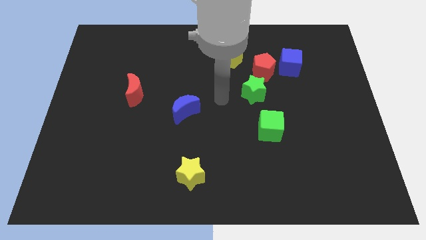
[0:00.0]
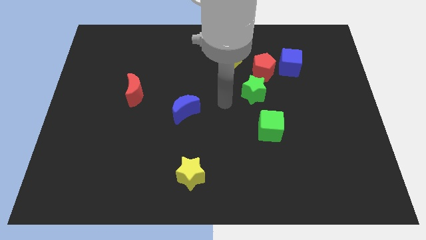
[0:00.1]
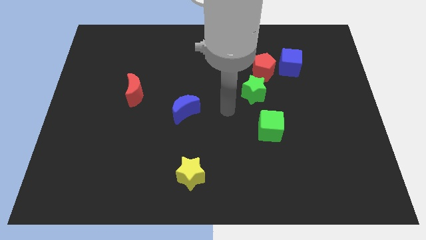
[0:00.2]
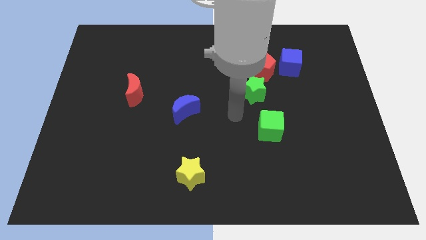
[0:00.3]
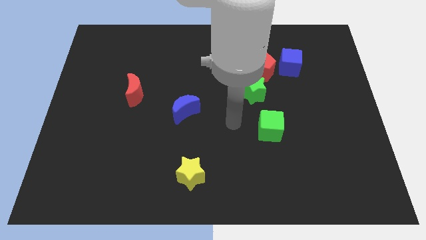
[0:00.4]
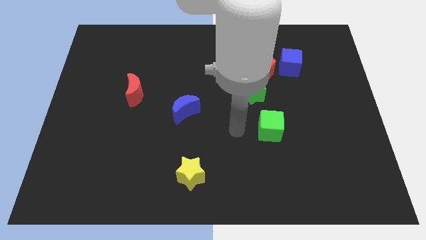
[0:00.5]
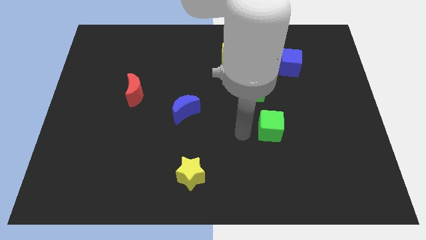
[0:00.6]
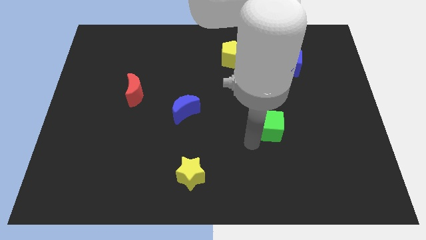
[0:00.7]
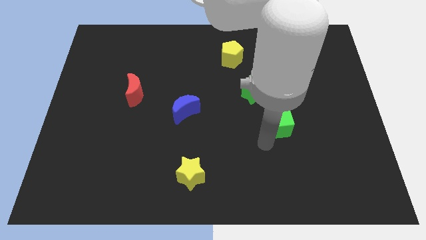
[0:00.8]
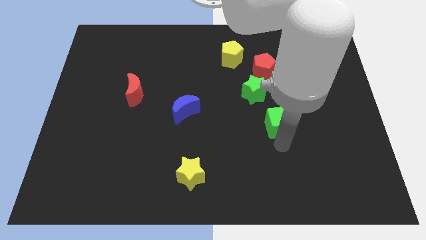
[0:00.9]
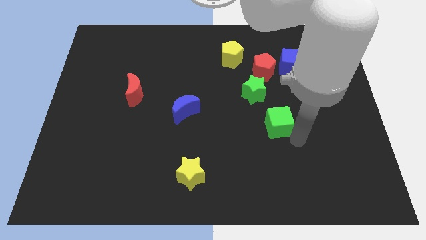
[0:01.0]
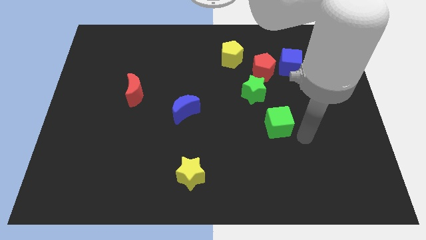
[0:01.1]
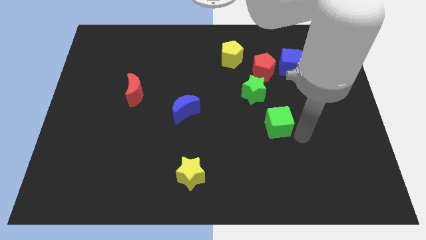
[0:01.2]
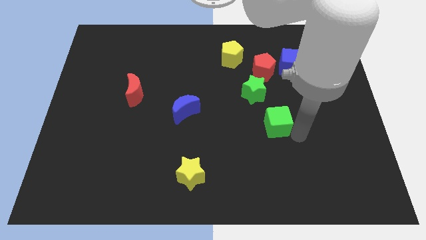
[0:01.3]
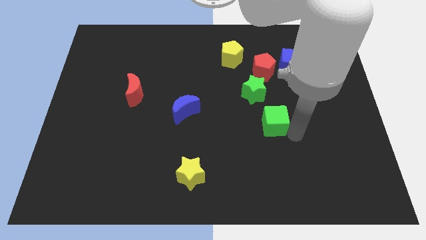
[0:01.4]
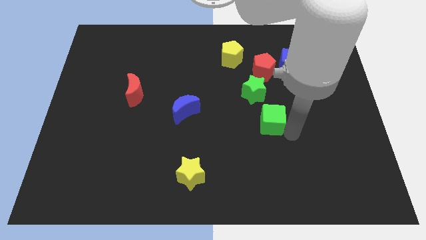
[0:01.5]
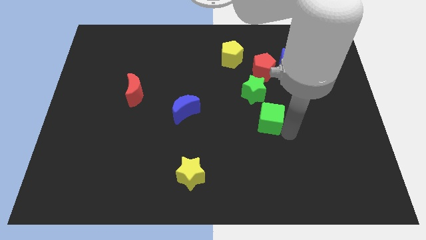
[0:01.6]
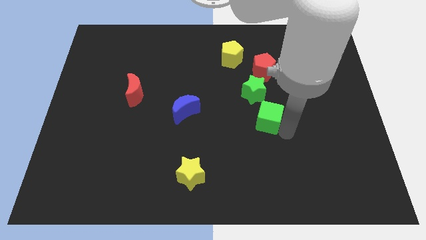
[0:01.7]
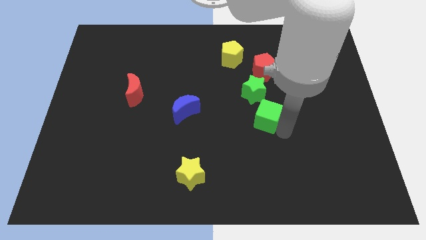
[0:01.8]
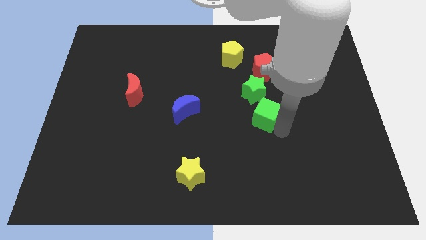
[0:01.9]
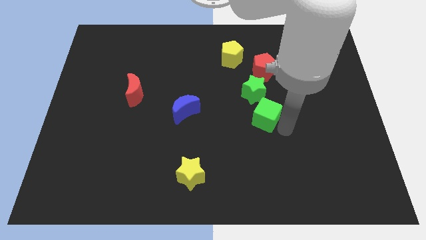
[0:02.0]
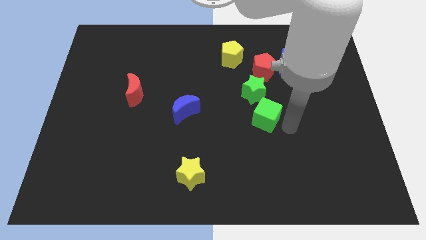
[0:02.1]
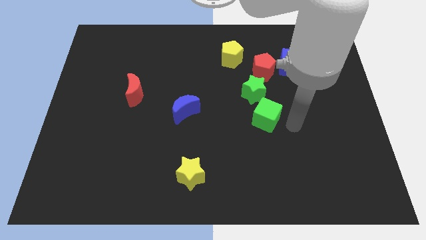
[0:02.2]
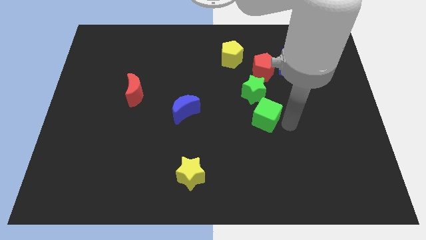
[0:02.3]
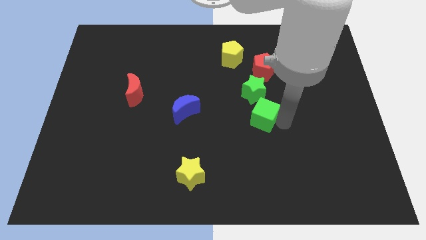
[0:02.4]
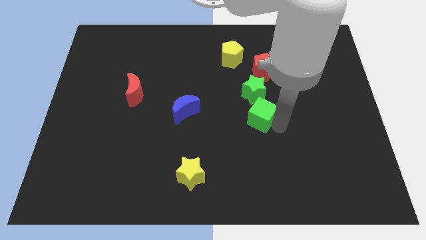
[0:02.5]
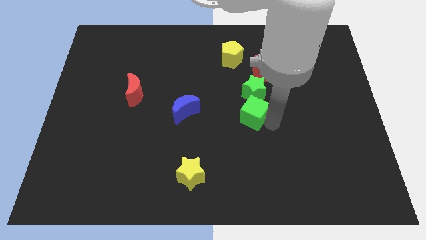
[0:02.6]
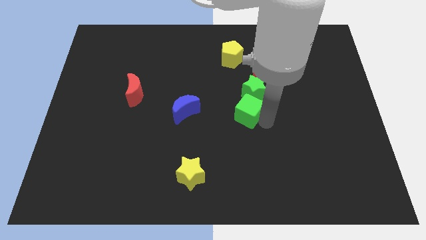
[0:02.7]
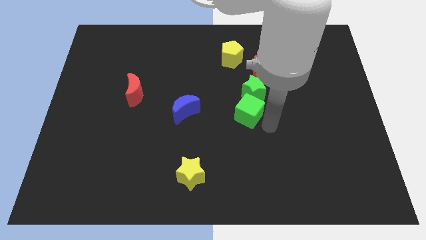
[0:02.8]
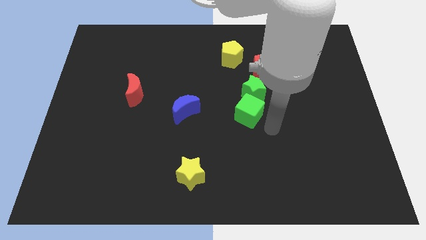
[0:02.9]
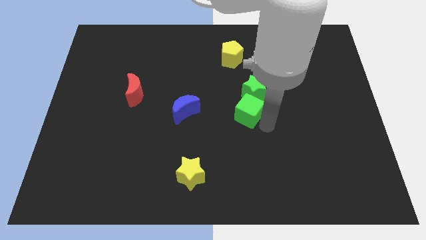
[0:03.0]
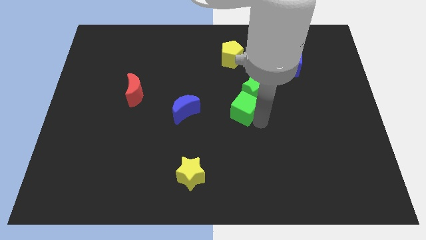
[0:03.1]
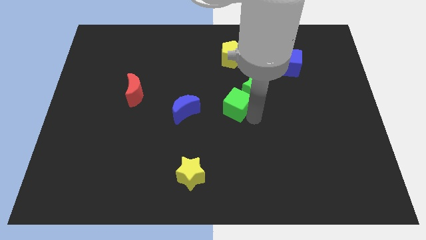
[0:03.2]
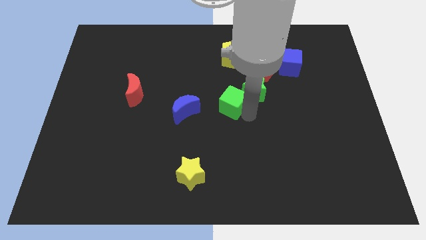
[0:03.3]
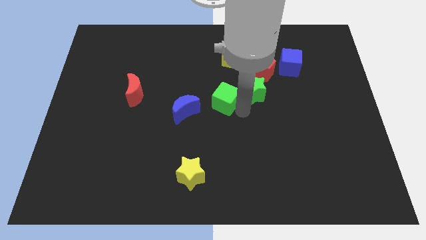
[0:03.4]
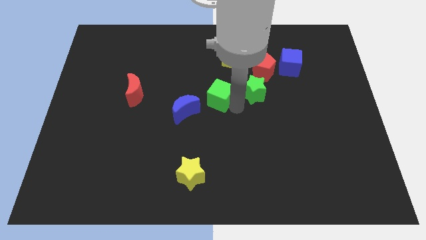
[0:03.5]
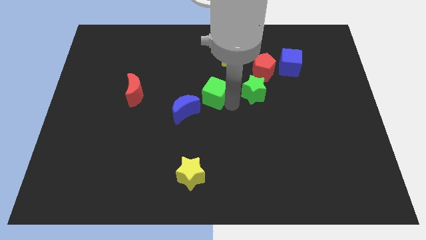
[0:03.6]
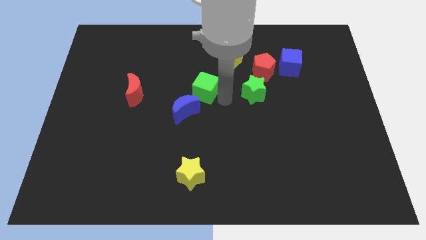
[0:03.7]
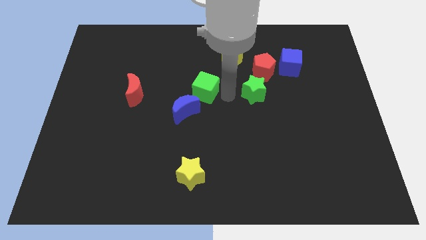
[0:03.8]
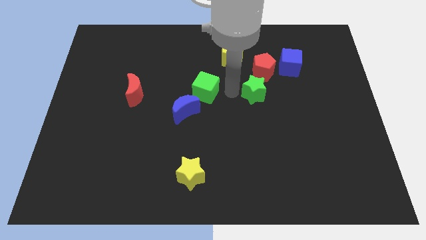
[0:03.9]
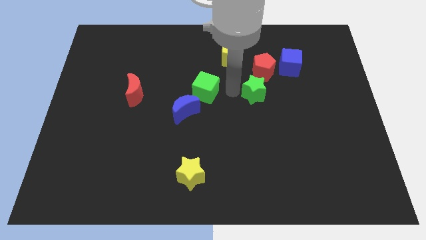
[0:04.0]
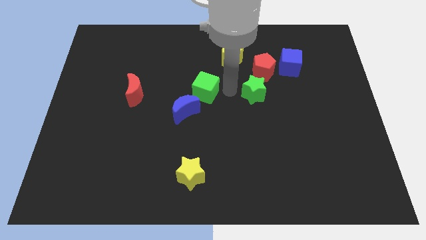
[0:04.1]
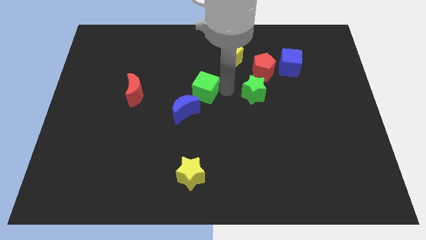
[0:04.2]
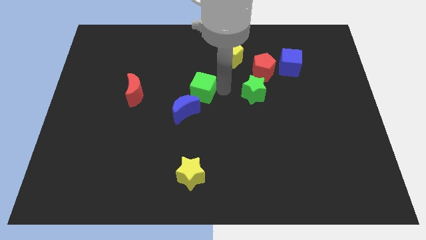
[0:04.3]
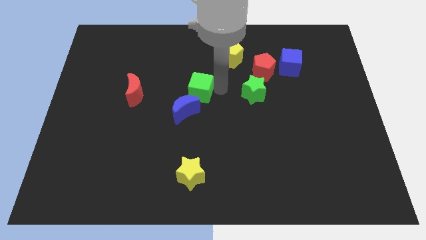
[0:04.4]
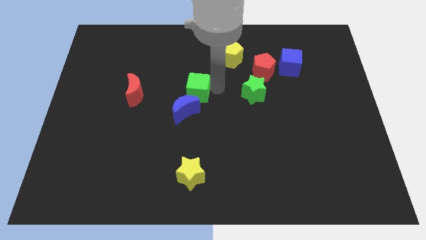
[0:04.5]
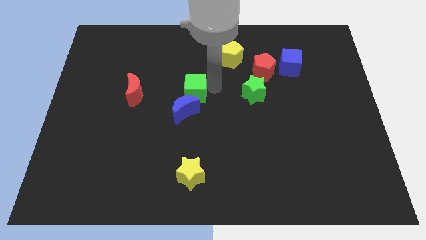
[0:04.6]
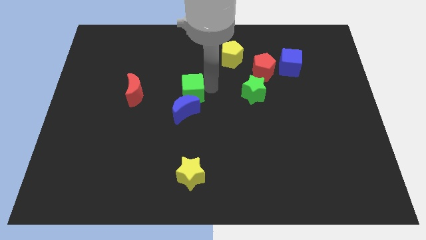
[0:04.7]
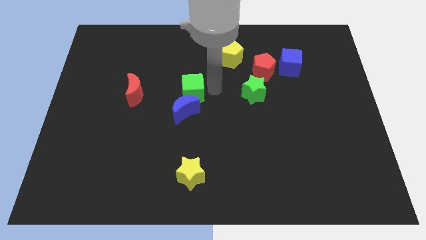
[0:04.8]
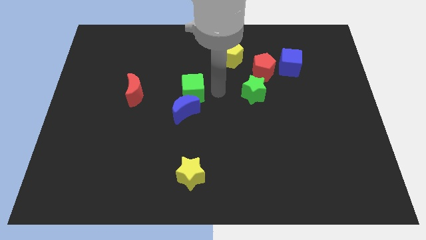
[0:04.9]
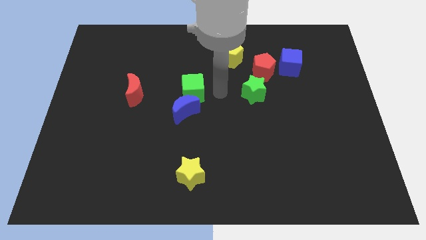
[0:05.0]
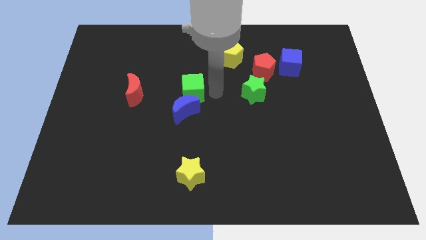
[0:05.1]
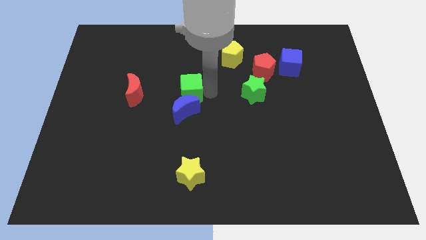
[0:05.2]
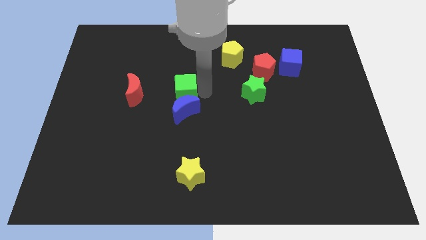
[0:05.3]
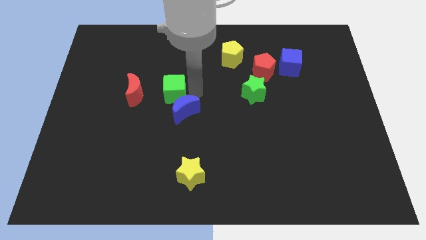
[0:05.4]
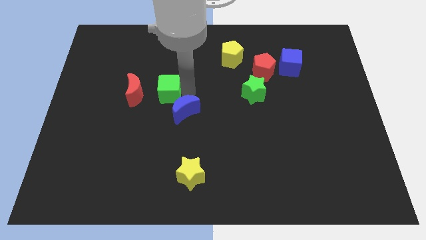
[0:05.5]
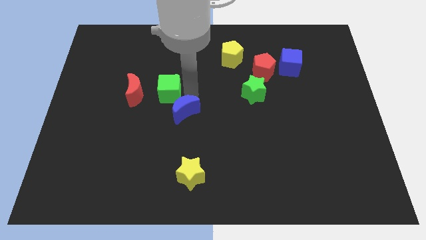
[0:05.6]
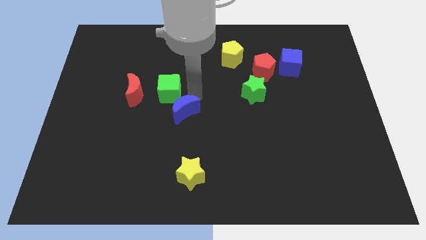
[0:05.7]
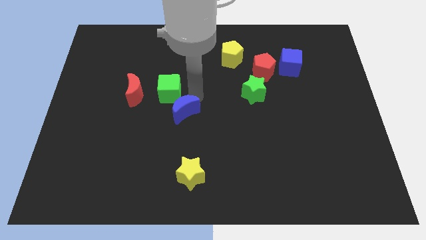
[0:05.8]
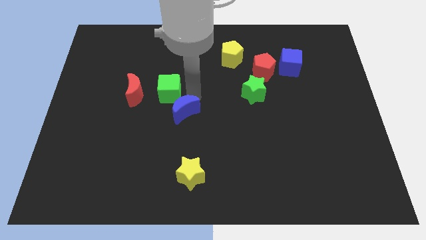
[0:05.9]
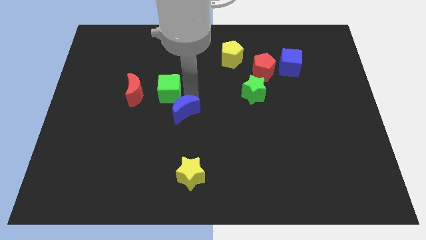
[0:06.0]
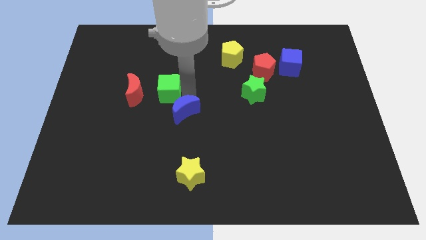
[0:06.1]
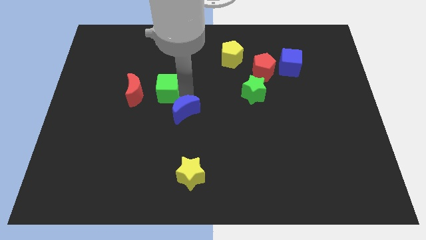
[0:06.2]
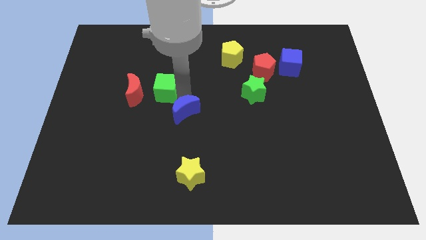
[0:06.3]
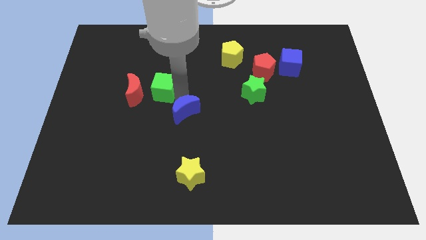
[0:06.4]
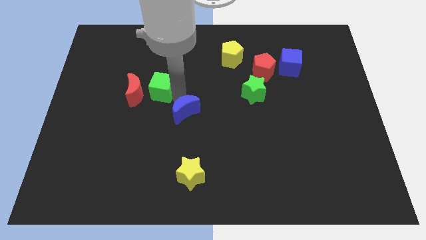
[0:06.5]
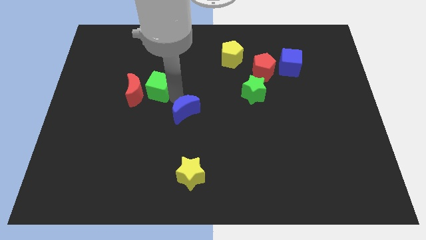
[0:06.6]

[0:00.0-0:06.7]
slide the green cube next to the red moon

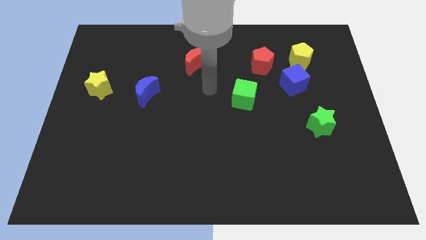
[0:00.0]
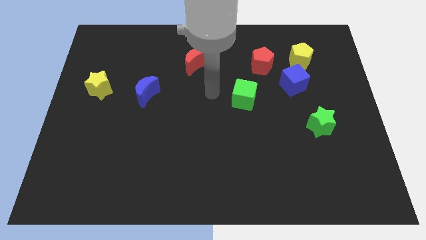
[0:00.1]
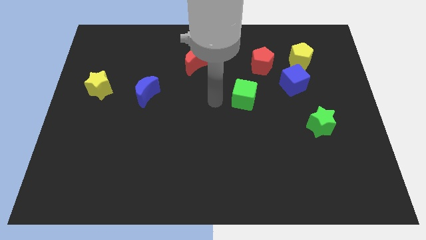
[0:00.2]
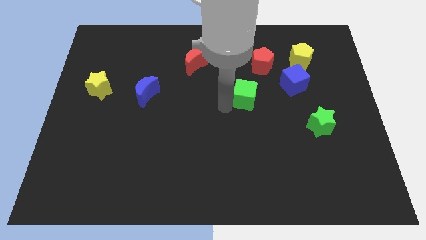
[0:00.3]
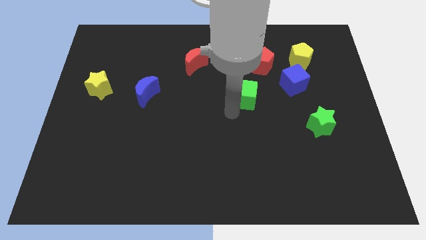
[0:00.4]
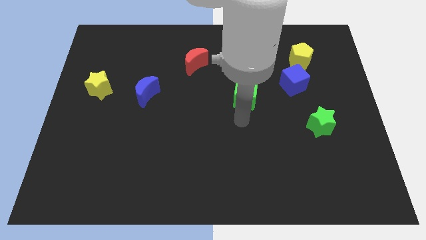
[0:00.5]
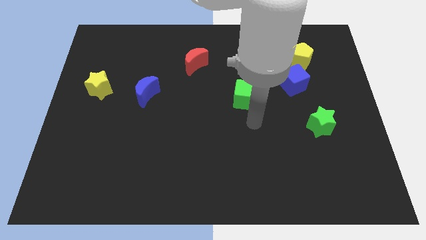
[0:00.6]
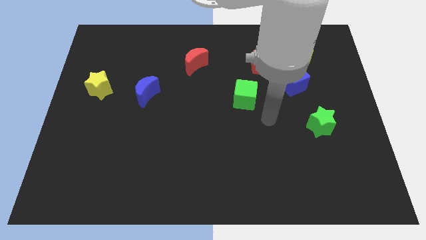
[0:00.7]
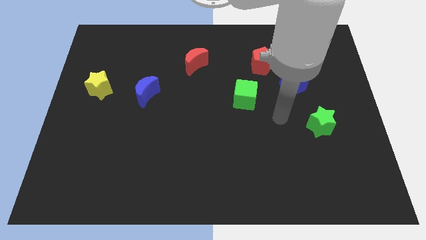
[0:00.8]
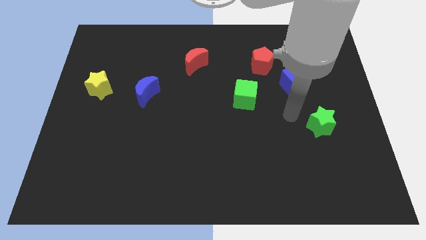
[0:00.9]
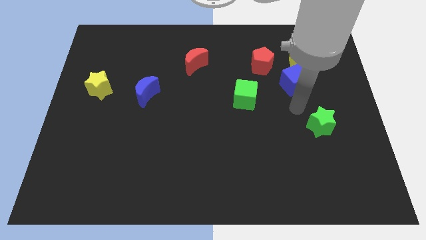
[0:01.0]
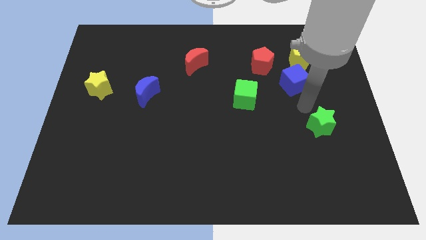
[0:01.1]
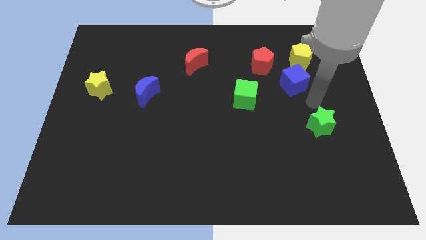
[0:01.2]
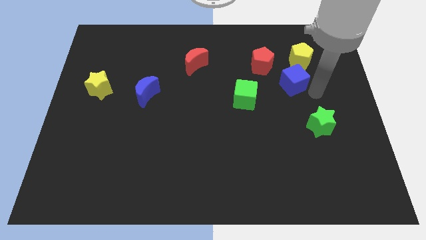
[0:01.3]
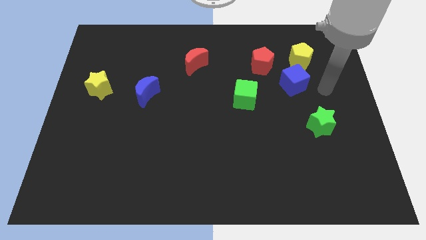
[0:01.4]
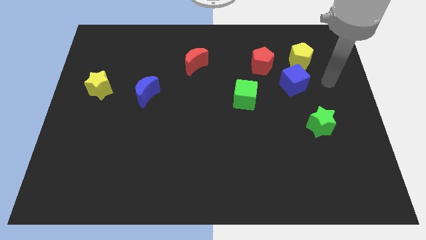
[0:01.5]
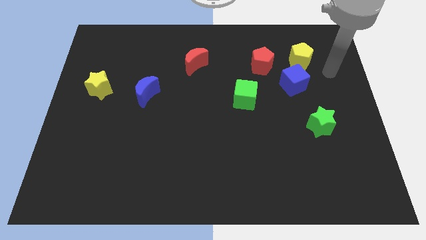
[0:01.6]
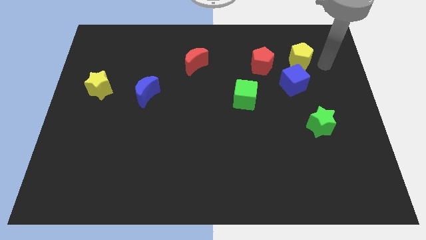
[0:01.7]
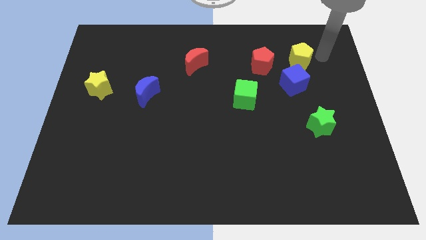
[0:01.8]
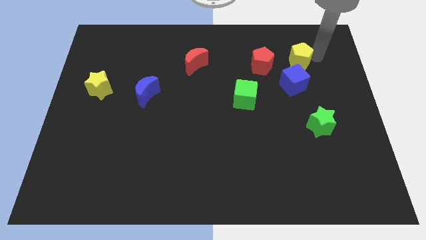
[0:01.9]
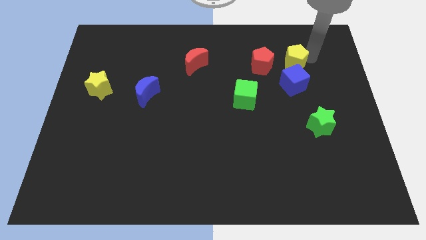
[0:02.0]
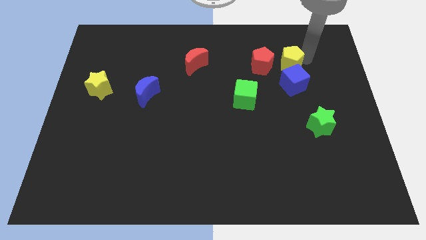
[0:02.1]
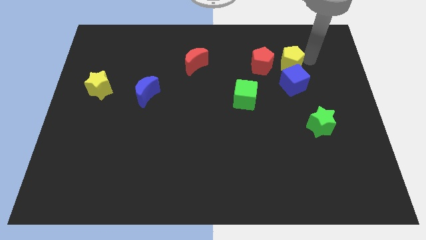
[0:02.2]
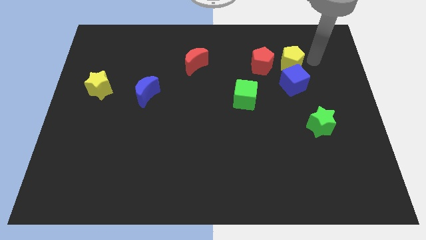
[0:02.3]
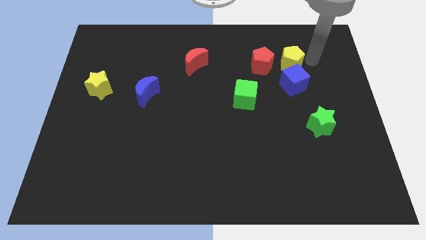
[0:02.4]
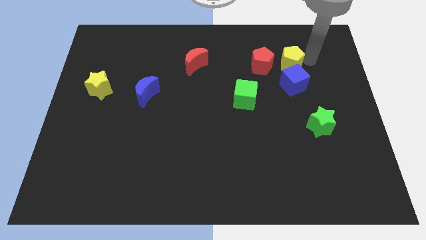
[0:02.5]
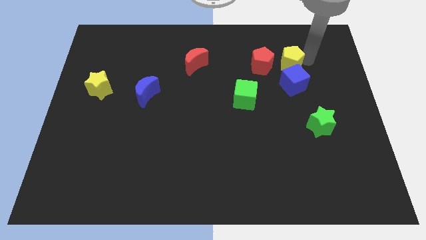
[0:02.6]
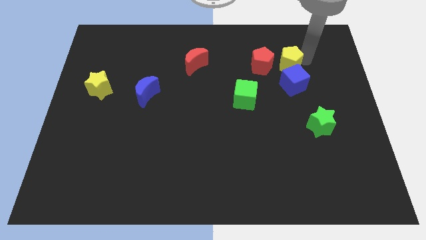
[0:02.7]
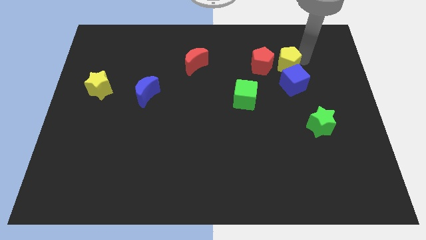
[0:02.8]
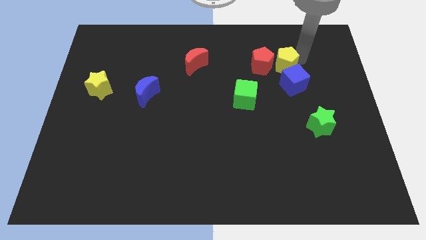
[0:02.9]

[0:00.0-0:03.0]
slide the yellow pentagon next to the red pentagon
